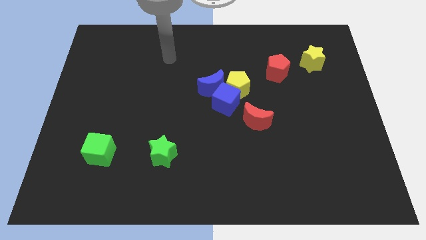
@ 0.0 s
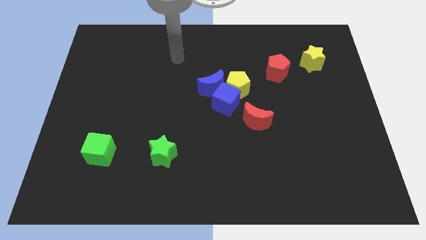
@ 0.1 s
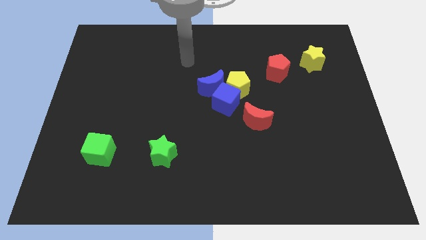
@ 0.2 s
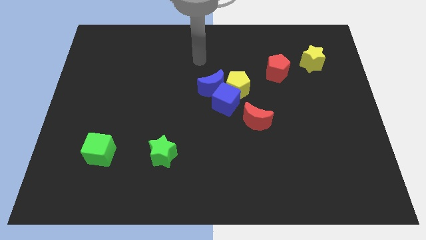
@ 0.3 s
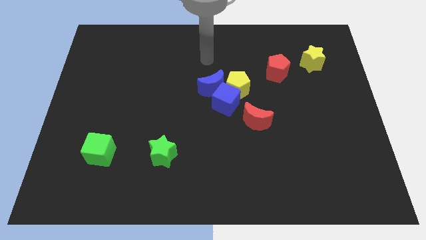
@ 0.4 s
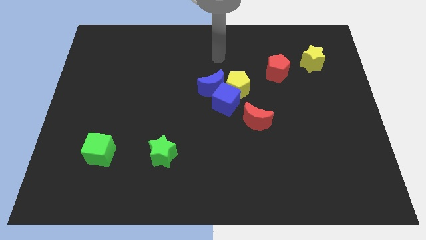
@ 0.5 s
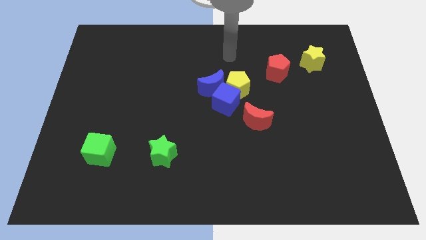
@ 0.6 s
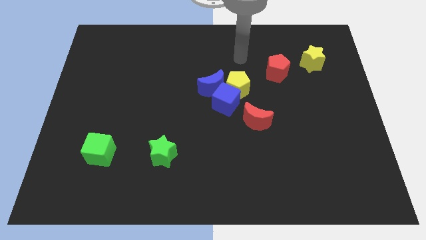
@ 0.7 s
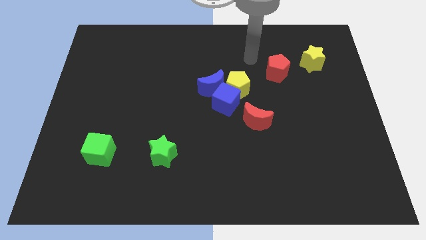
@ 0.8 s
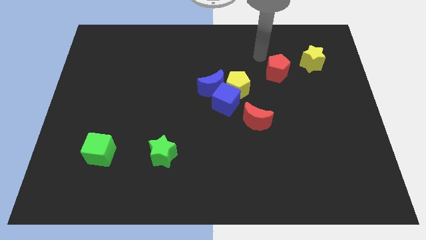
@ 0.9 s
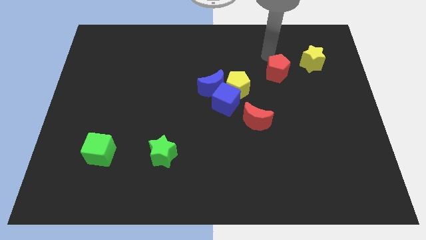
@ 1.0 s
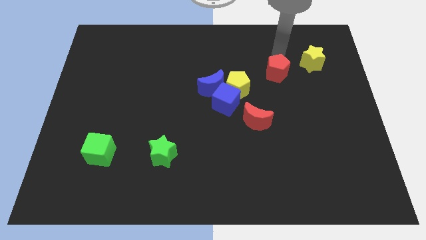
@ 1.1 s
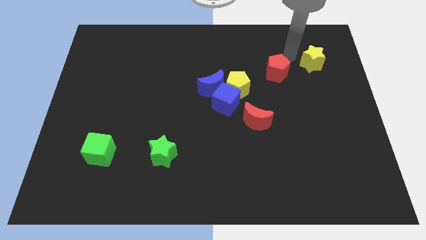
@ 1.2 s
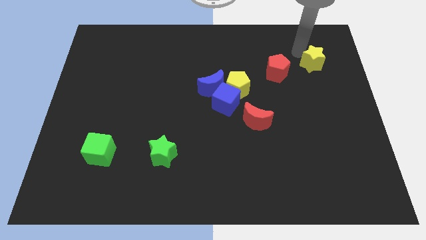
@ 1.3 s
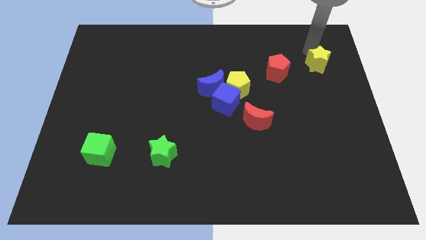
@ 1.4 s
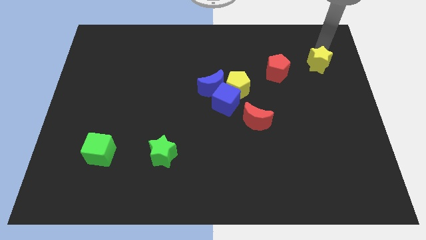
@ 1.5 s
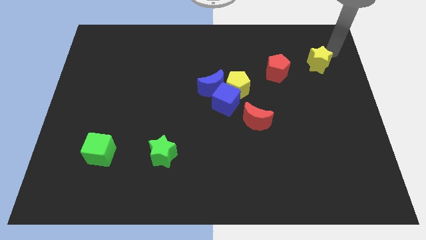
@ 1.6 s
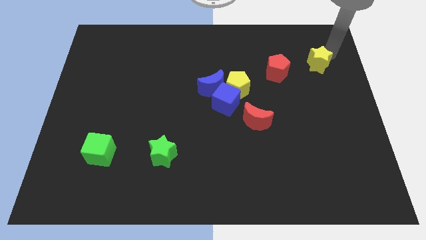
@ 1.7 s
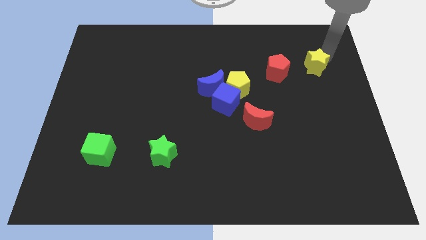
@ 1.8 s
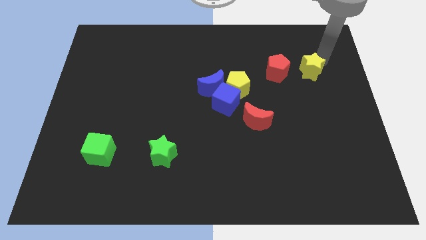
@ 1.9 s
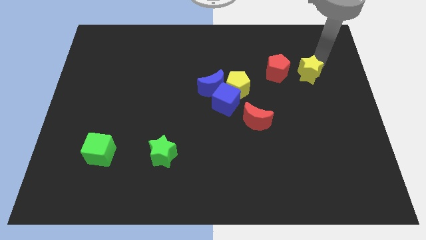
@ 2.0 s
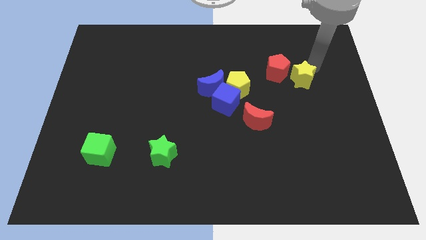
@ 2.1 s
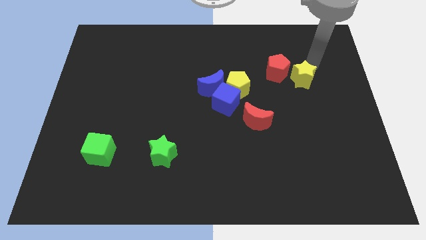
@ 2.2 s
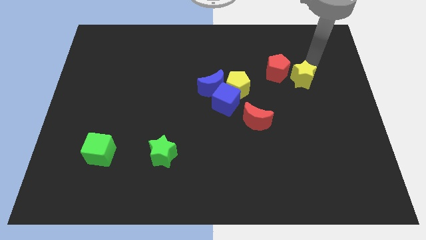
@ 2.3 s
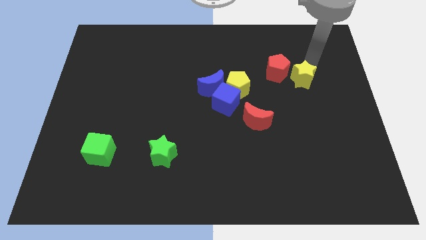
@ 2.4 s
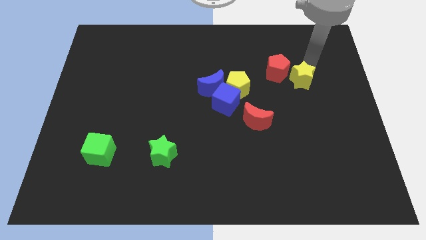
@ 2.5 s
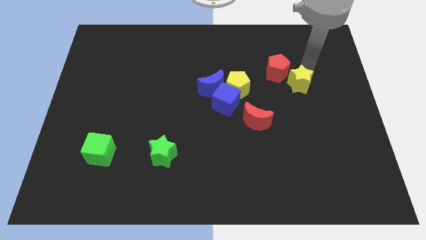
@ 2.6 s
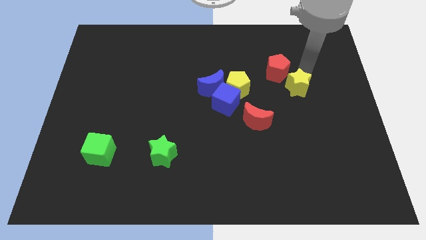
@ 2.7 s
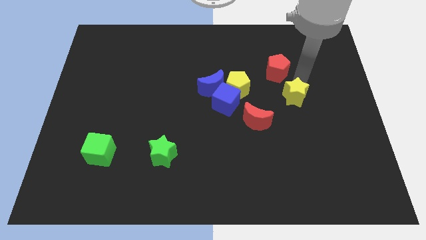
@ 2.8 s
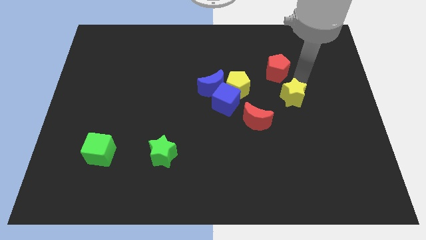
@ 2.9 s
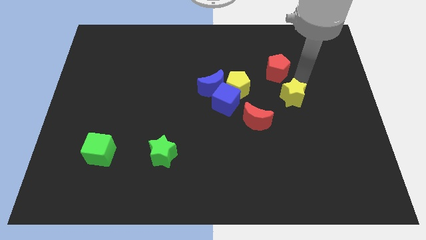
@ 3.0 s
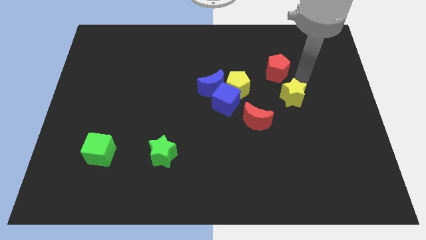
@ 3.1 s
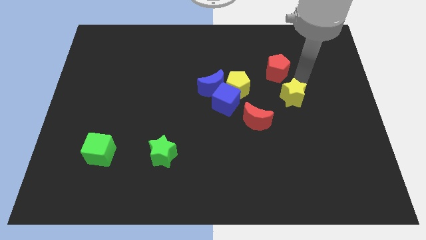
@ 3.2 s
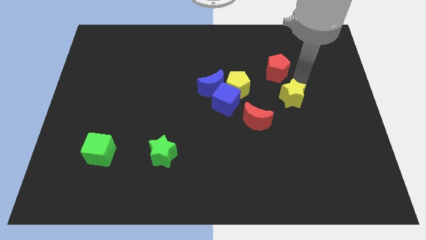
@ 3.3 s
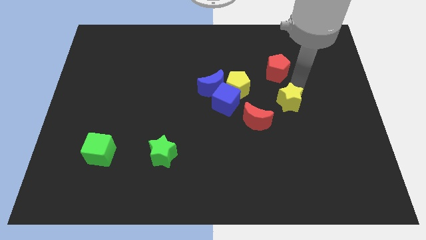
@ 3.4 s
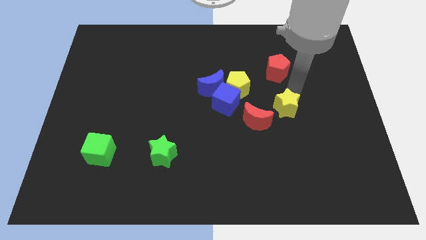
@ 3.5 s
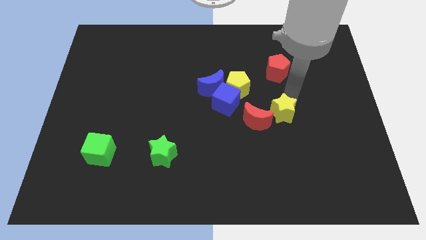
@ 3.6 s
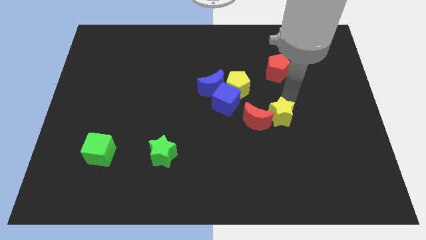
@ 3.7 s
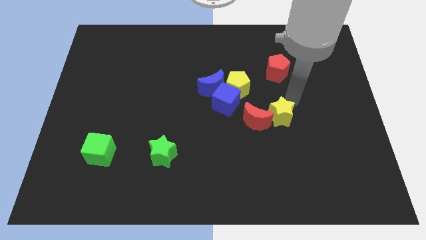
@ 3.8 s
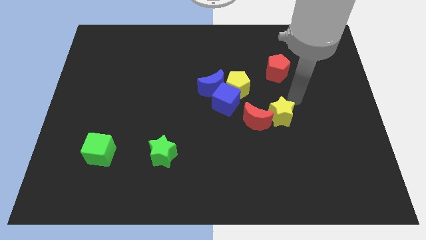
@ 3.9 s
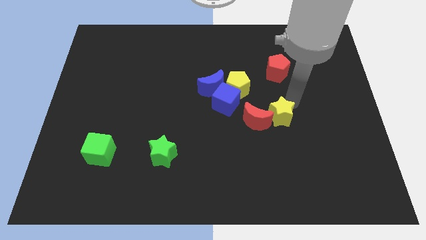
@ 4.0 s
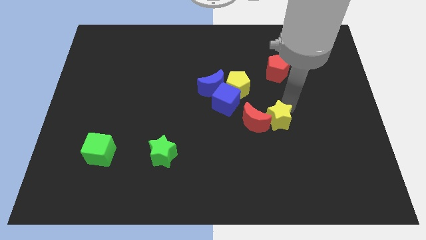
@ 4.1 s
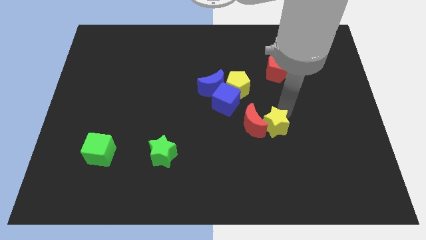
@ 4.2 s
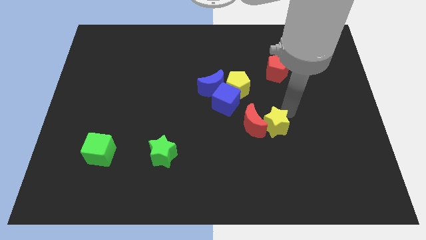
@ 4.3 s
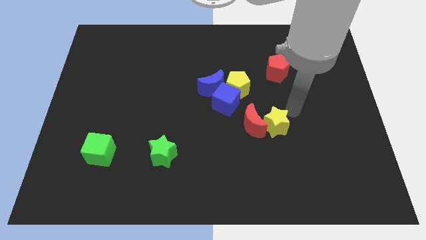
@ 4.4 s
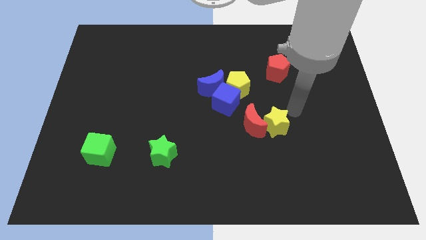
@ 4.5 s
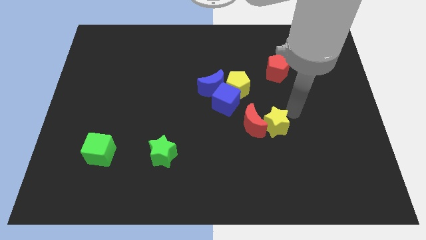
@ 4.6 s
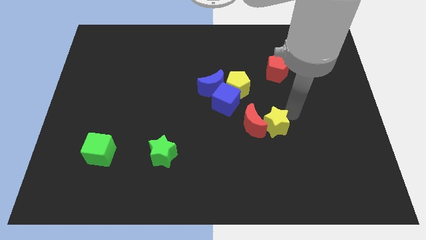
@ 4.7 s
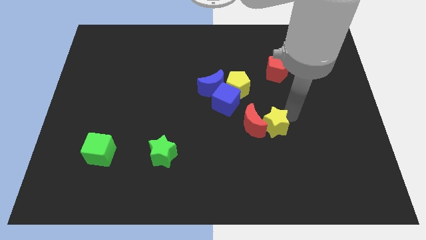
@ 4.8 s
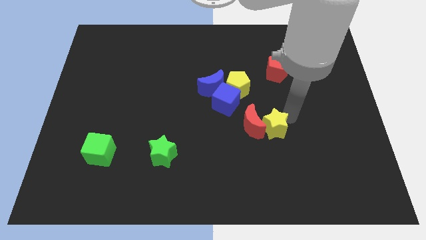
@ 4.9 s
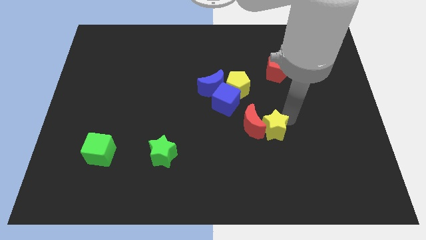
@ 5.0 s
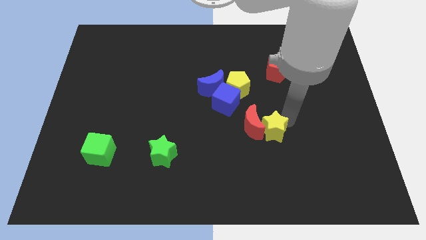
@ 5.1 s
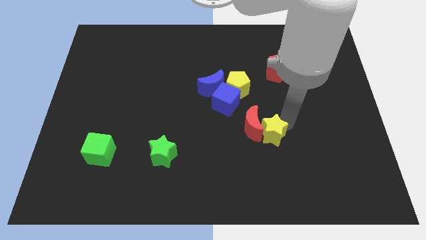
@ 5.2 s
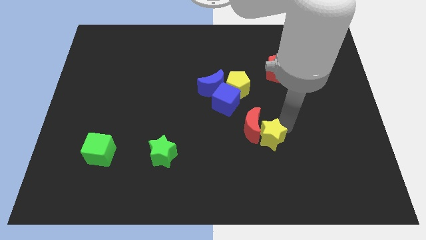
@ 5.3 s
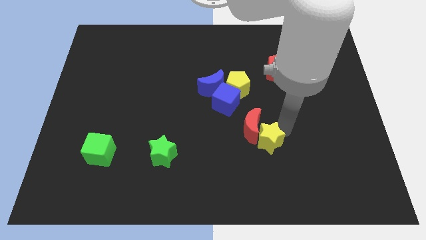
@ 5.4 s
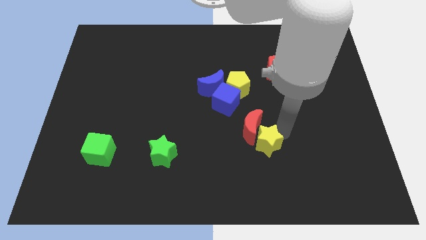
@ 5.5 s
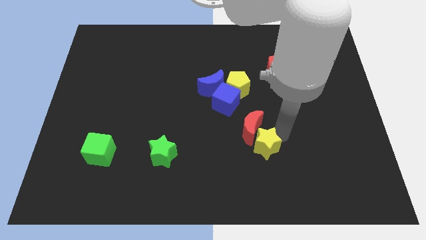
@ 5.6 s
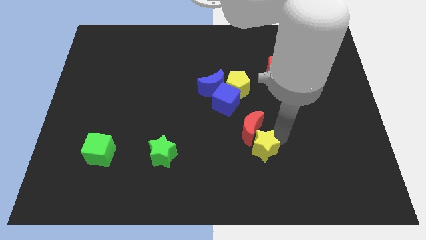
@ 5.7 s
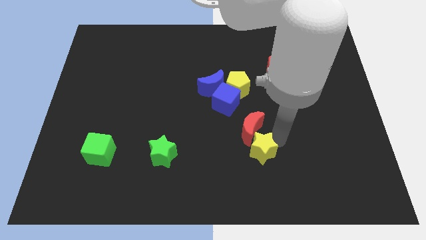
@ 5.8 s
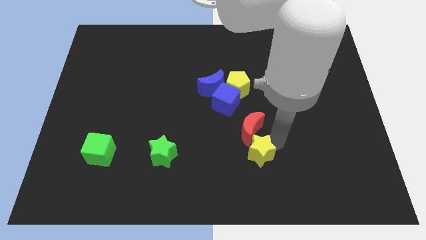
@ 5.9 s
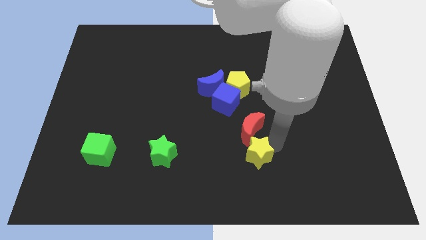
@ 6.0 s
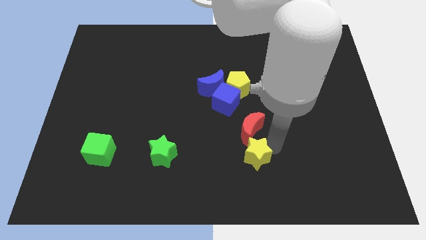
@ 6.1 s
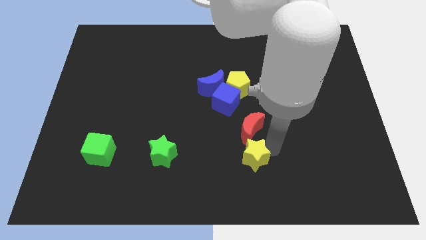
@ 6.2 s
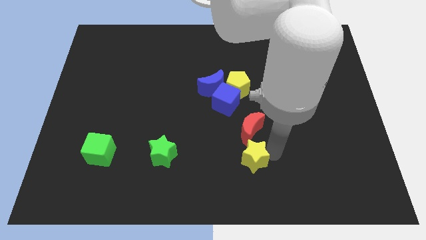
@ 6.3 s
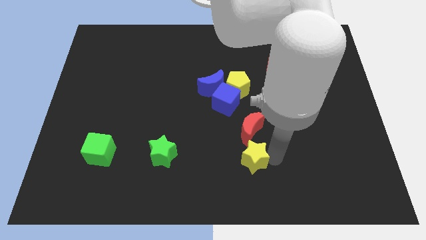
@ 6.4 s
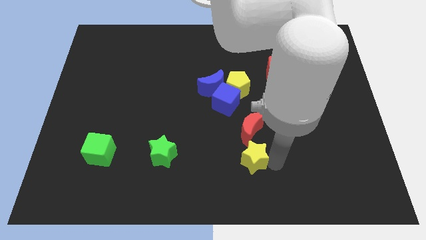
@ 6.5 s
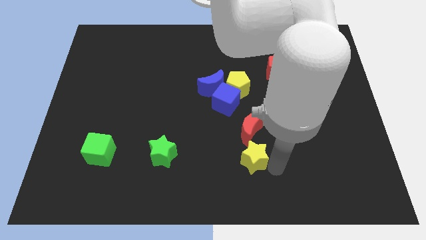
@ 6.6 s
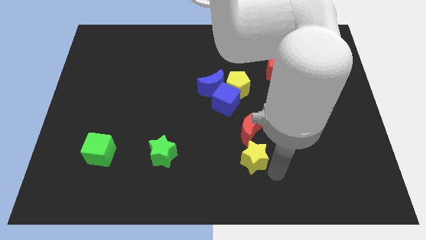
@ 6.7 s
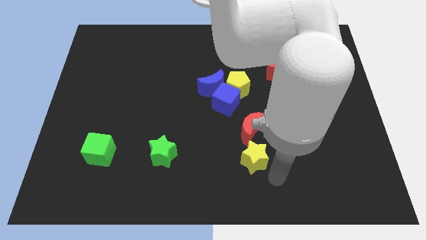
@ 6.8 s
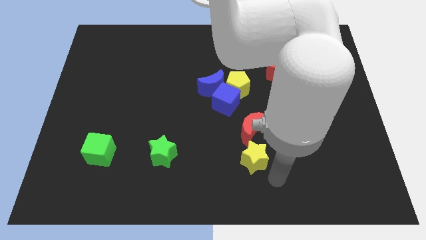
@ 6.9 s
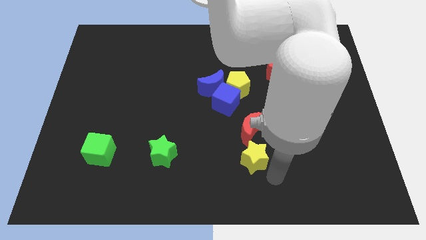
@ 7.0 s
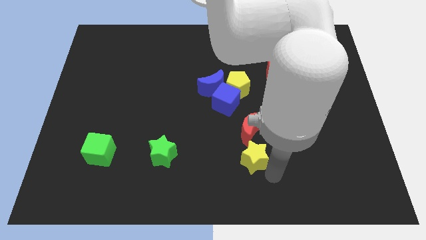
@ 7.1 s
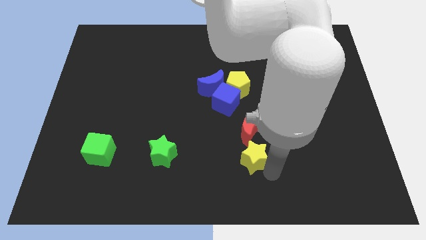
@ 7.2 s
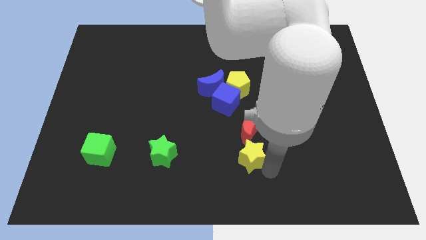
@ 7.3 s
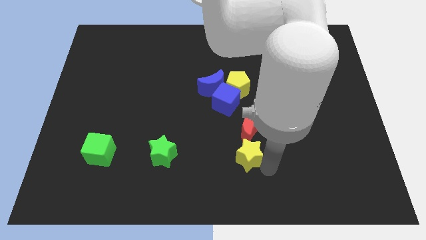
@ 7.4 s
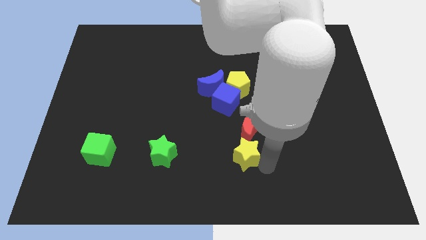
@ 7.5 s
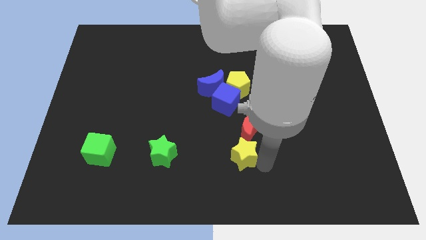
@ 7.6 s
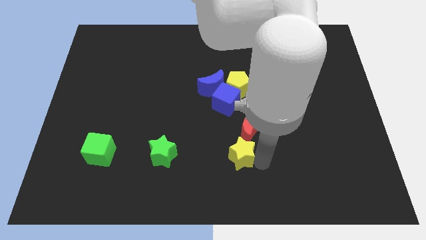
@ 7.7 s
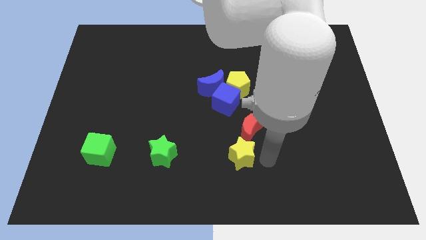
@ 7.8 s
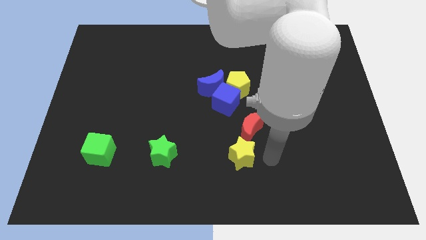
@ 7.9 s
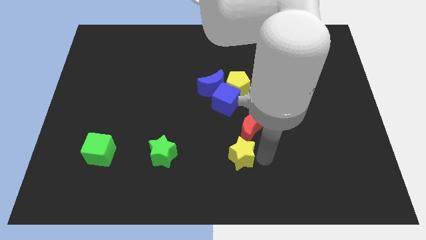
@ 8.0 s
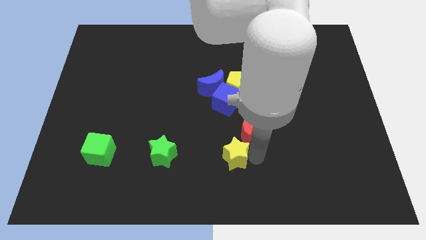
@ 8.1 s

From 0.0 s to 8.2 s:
push the yellow star to the right of the green star
